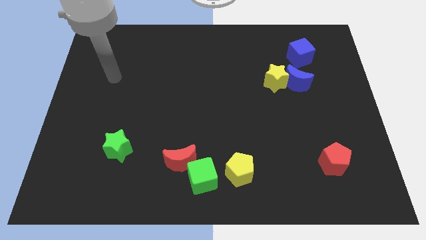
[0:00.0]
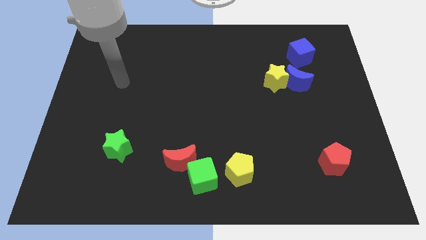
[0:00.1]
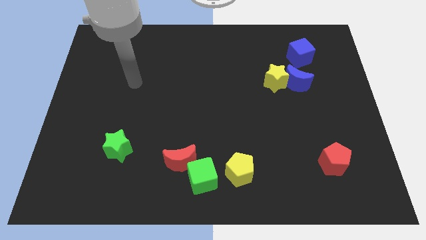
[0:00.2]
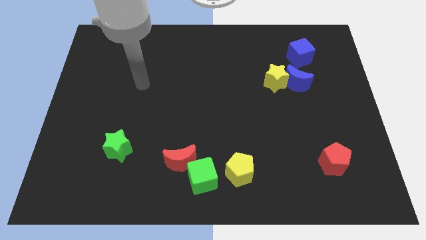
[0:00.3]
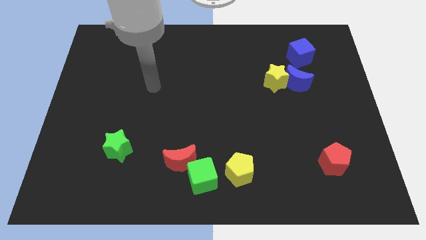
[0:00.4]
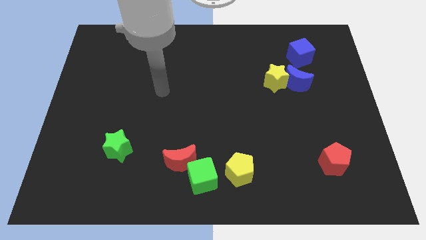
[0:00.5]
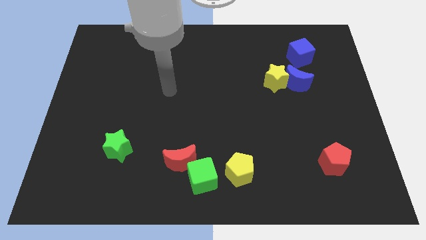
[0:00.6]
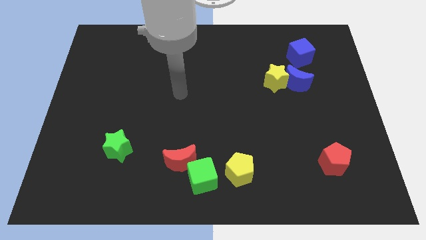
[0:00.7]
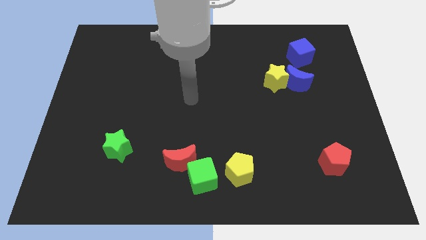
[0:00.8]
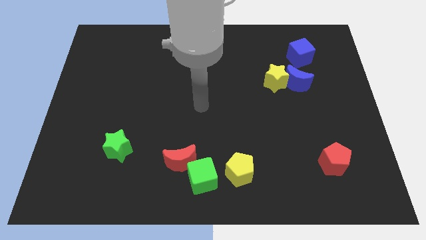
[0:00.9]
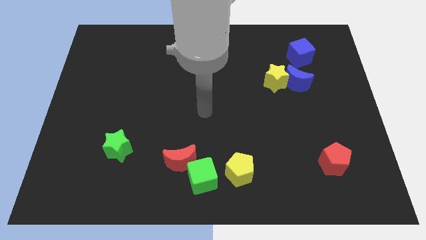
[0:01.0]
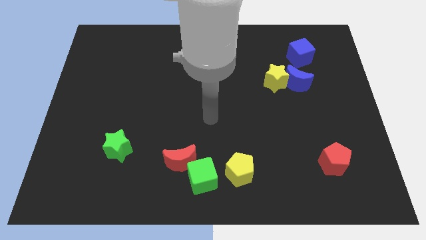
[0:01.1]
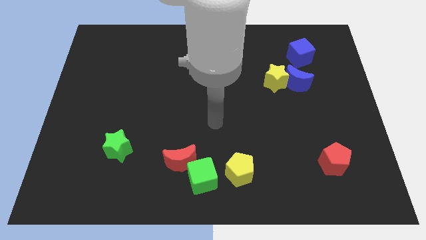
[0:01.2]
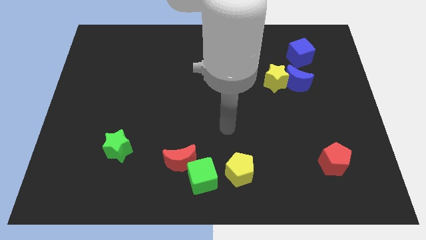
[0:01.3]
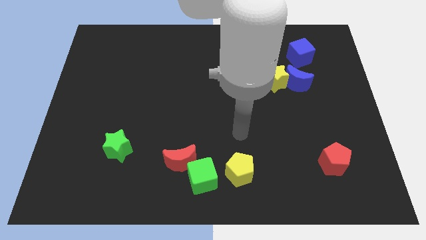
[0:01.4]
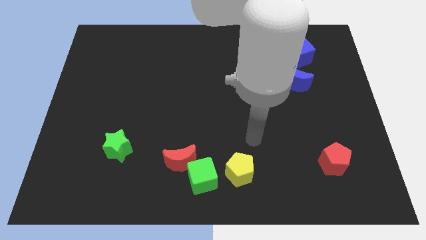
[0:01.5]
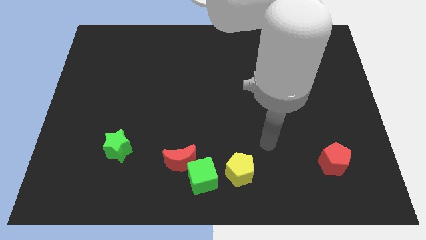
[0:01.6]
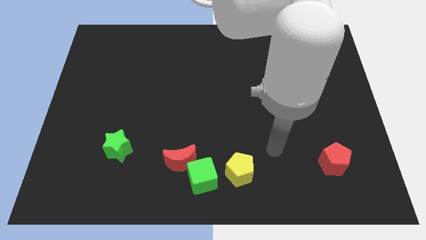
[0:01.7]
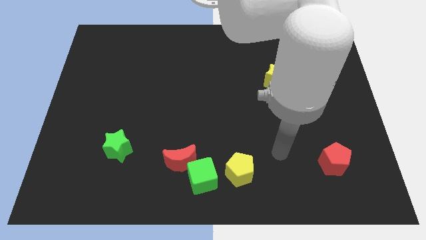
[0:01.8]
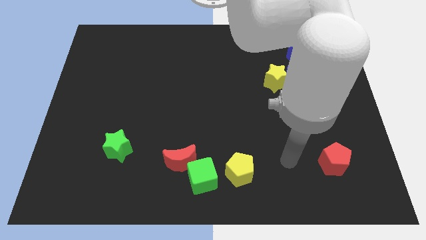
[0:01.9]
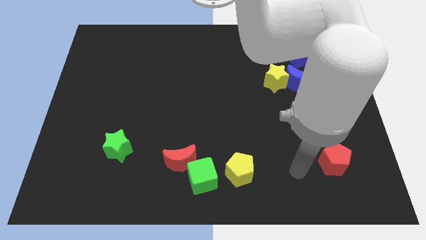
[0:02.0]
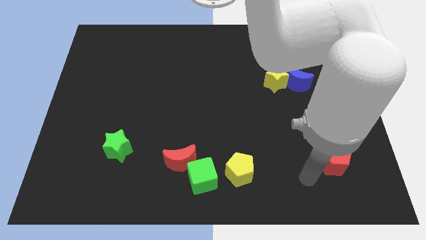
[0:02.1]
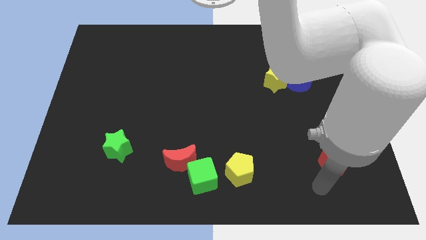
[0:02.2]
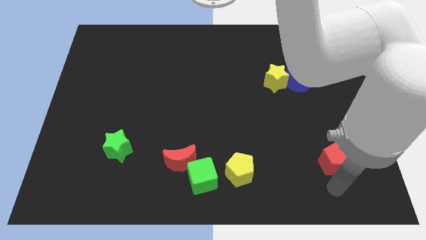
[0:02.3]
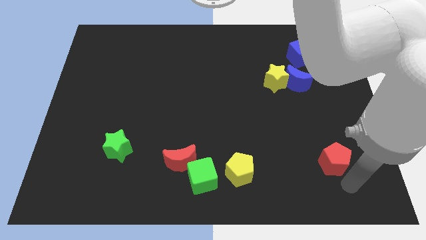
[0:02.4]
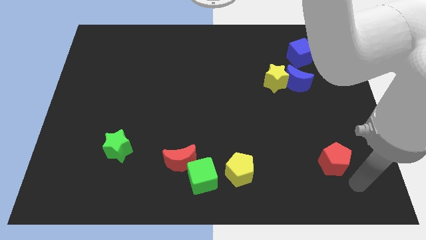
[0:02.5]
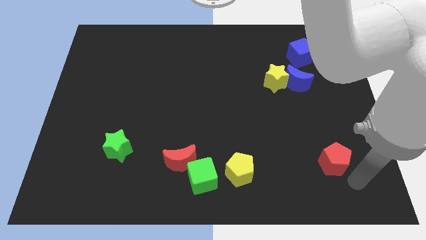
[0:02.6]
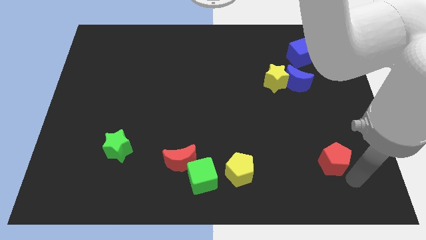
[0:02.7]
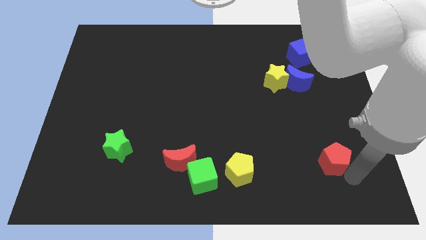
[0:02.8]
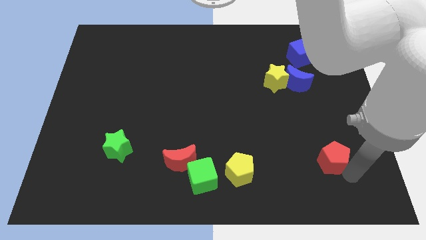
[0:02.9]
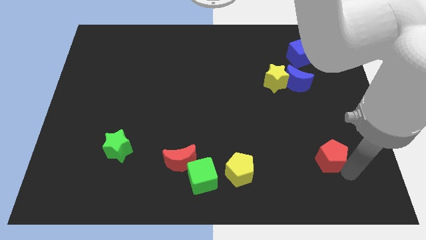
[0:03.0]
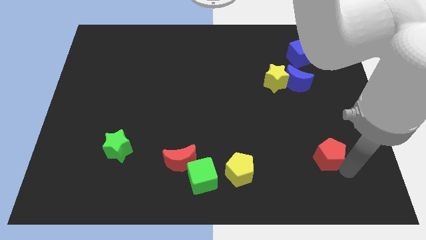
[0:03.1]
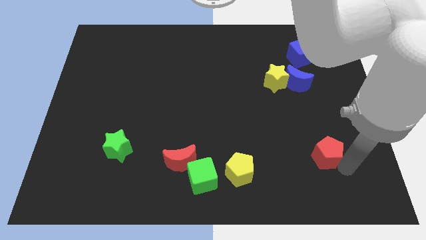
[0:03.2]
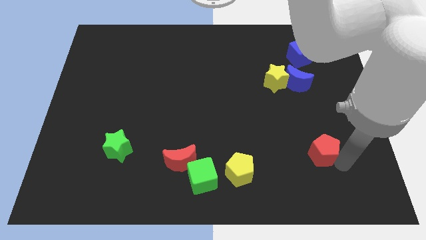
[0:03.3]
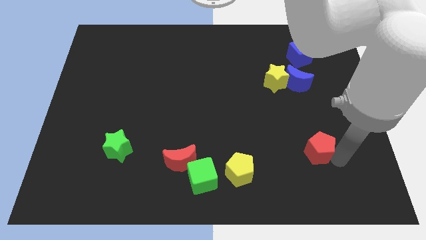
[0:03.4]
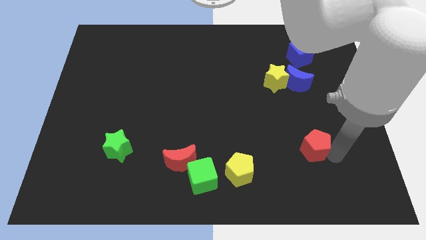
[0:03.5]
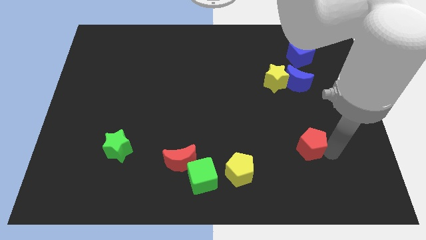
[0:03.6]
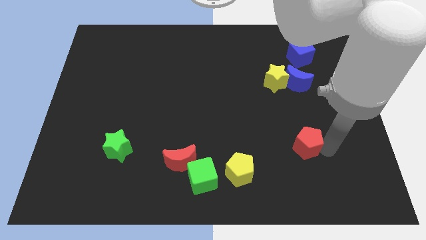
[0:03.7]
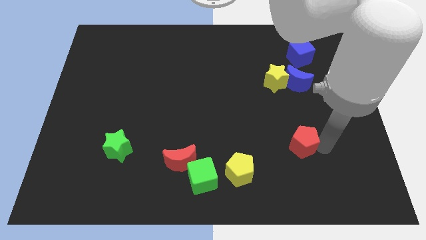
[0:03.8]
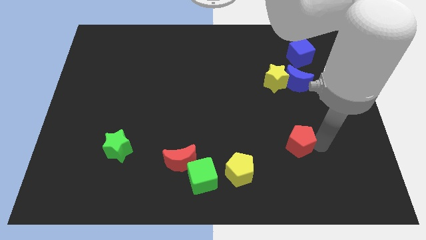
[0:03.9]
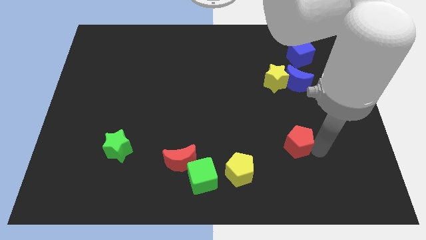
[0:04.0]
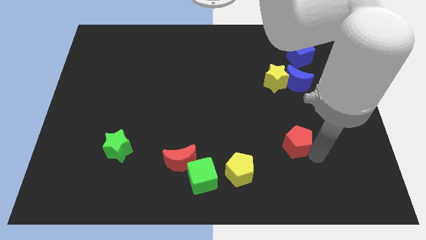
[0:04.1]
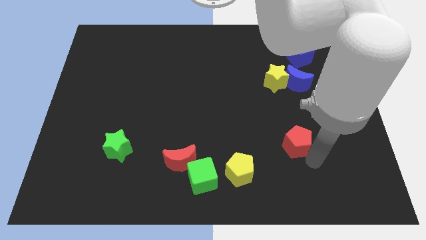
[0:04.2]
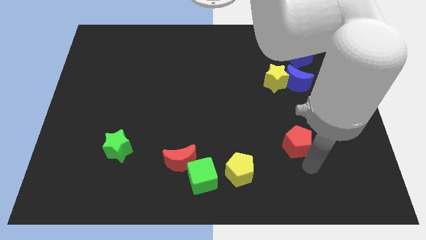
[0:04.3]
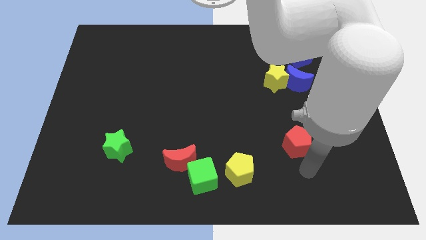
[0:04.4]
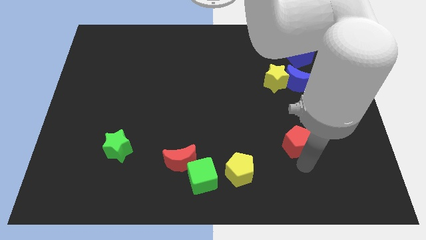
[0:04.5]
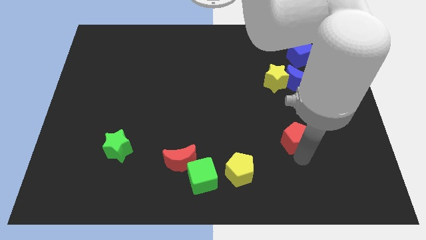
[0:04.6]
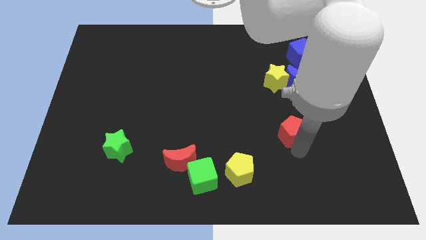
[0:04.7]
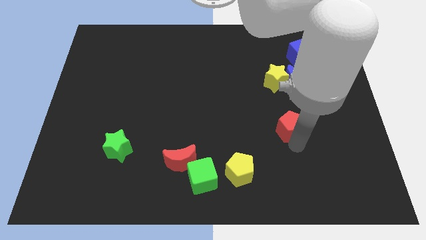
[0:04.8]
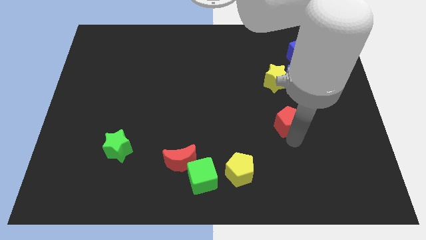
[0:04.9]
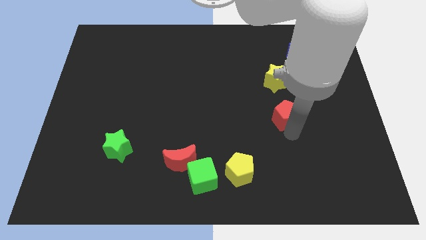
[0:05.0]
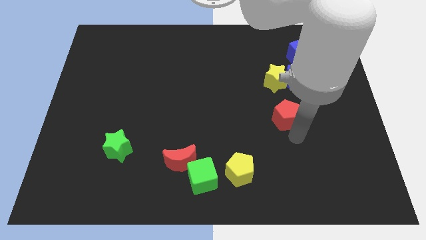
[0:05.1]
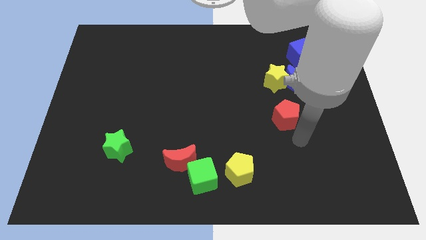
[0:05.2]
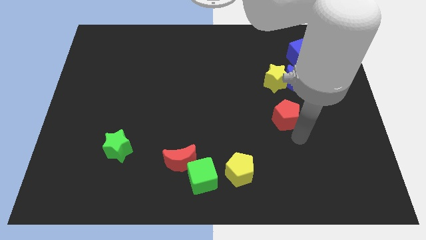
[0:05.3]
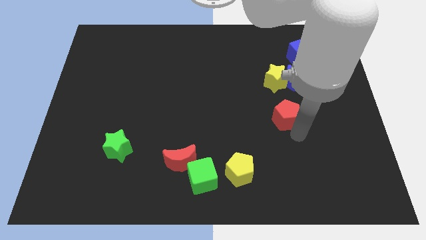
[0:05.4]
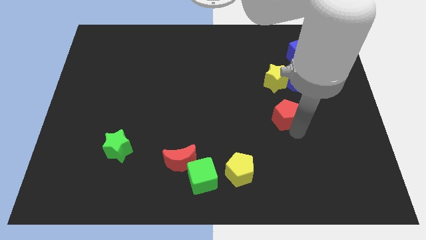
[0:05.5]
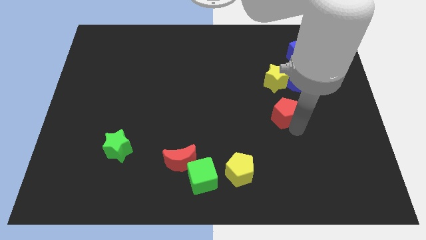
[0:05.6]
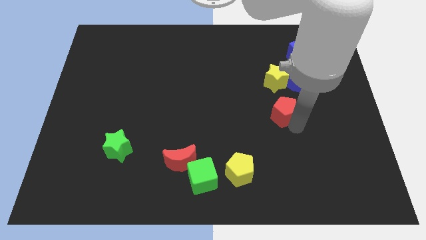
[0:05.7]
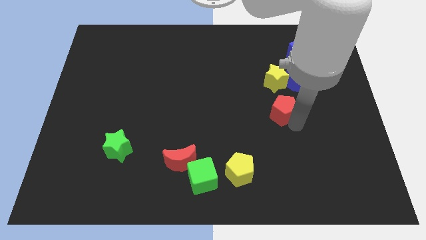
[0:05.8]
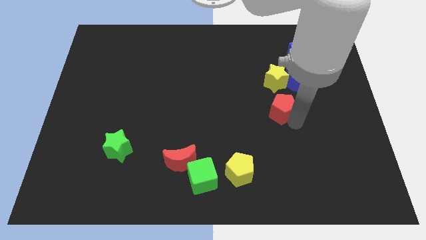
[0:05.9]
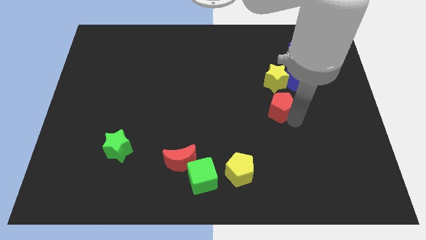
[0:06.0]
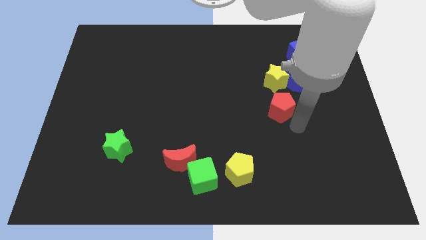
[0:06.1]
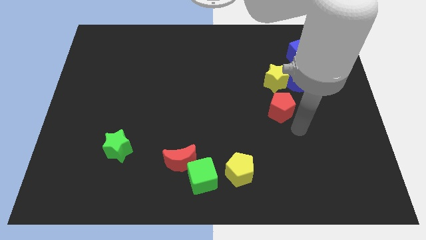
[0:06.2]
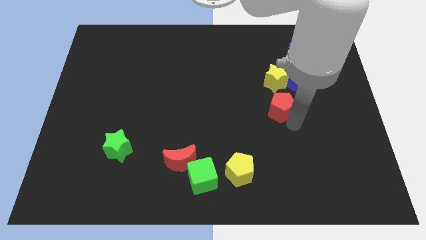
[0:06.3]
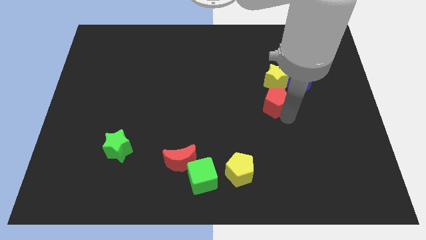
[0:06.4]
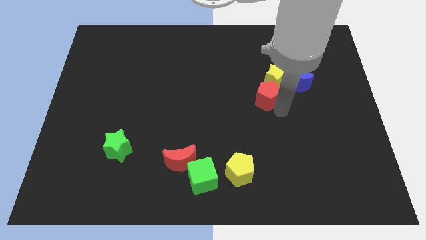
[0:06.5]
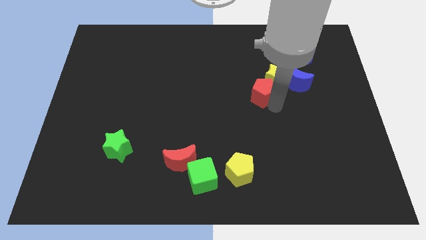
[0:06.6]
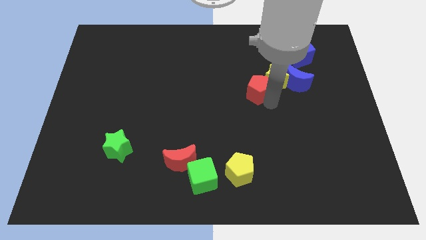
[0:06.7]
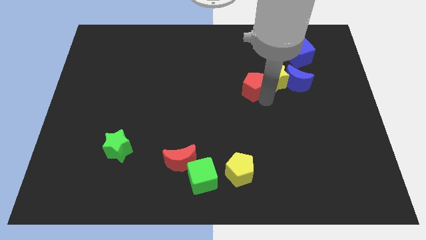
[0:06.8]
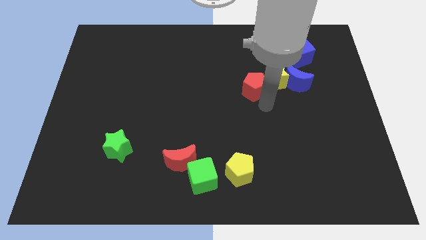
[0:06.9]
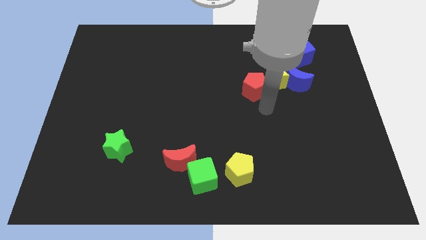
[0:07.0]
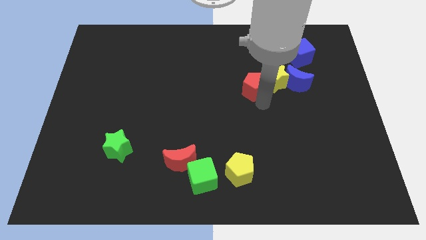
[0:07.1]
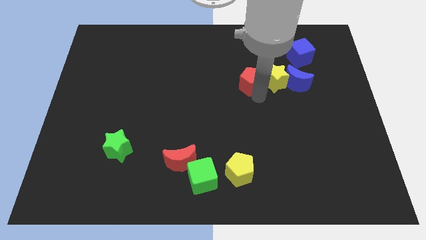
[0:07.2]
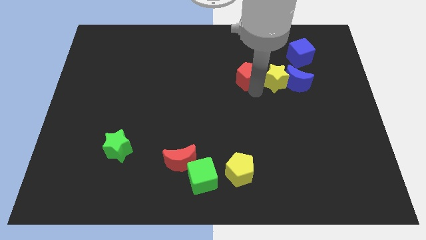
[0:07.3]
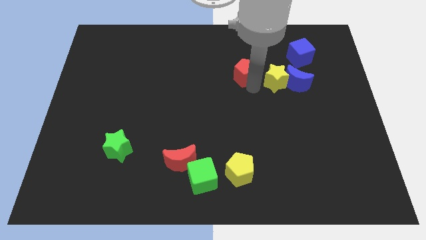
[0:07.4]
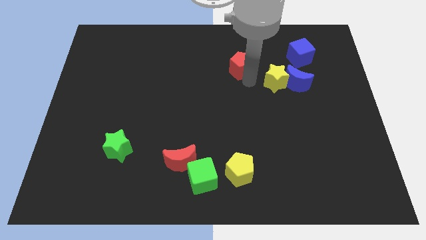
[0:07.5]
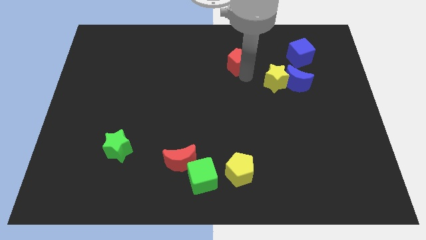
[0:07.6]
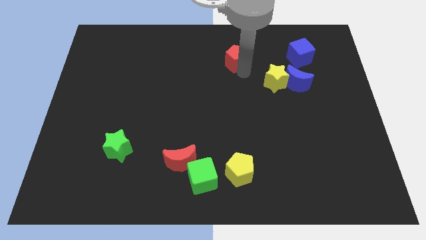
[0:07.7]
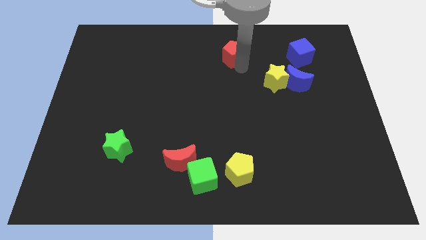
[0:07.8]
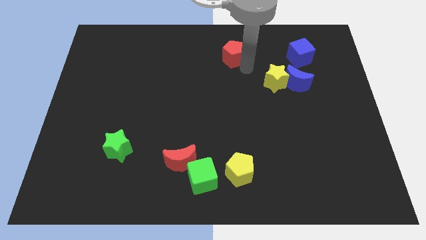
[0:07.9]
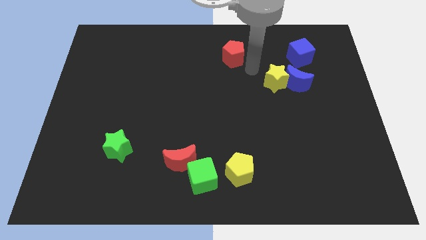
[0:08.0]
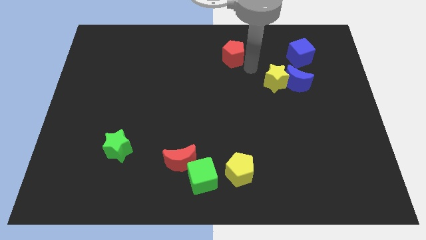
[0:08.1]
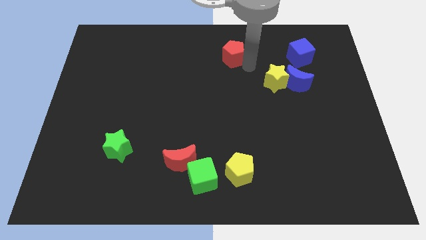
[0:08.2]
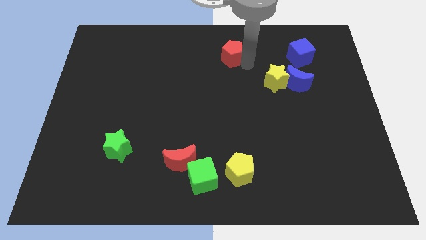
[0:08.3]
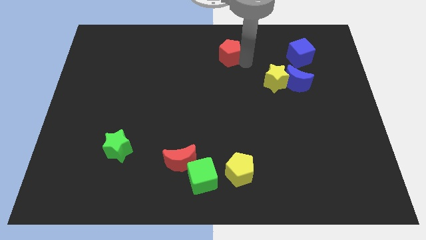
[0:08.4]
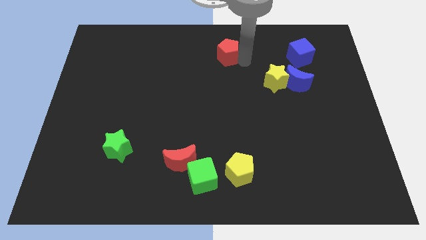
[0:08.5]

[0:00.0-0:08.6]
slide the red pentagon to the top side
